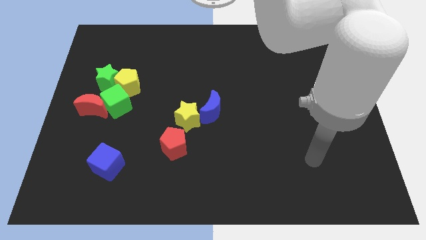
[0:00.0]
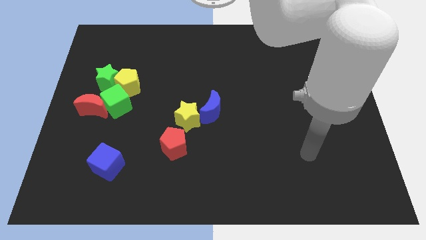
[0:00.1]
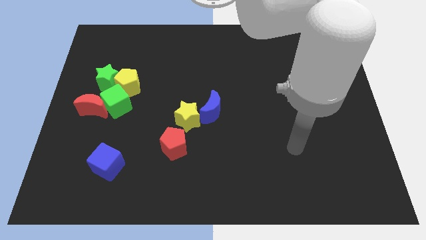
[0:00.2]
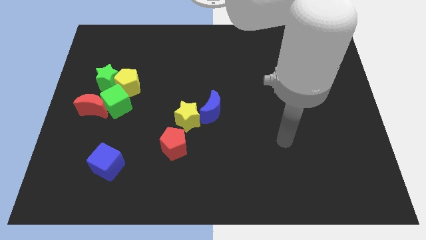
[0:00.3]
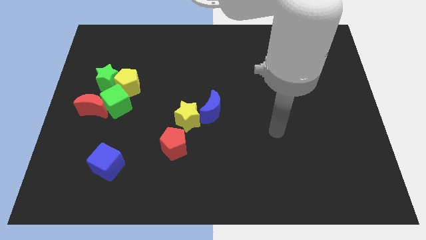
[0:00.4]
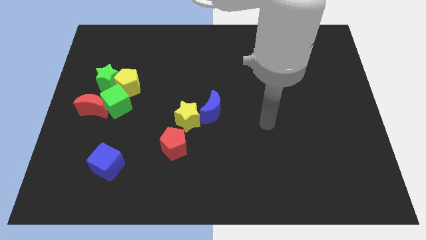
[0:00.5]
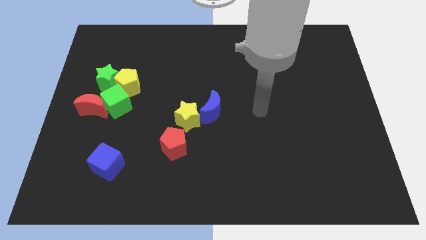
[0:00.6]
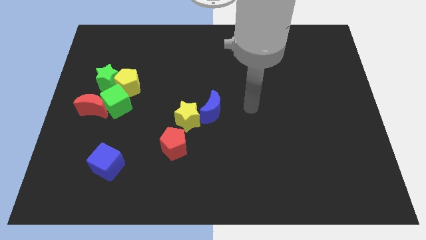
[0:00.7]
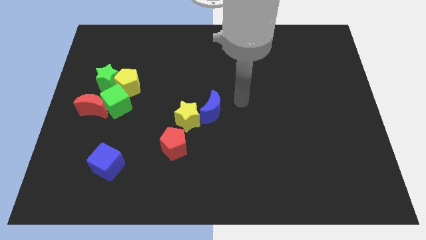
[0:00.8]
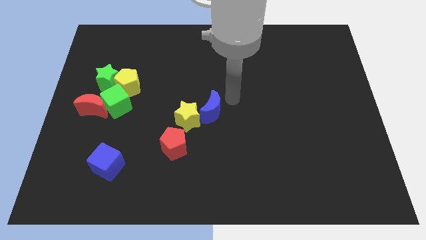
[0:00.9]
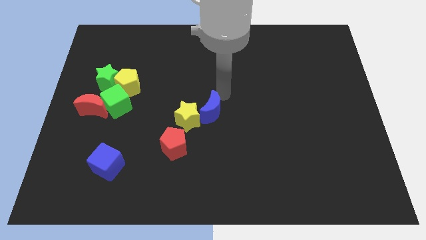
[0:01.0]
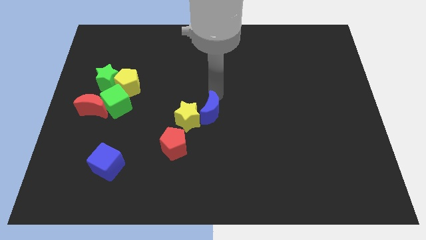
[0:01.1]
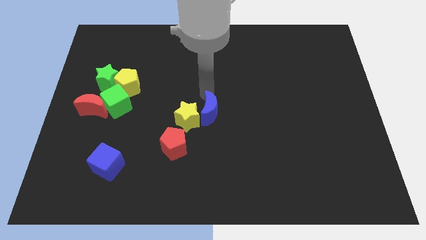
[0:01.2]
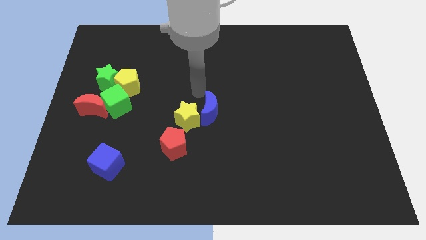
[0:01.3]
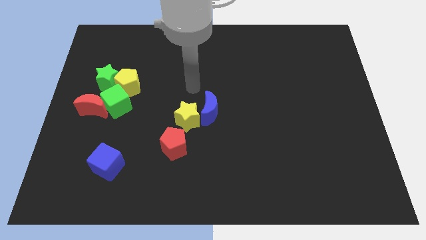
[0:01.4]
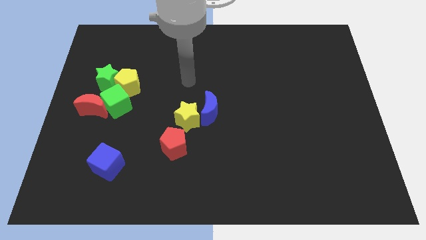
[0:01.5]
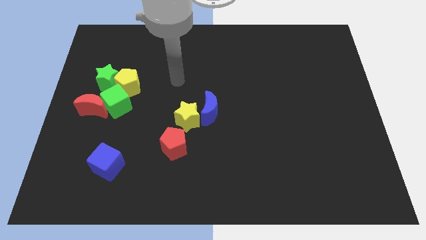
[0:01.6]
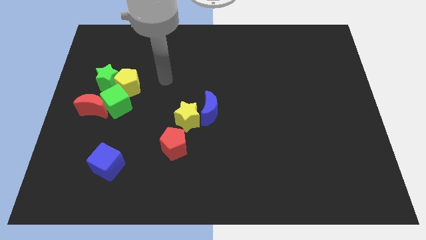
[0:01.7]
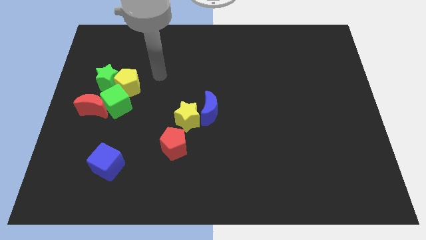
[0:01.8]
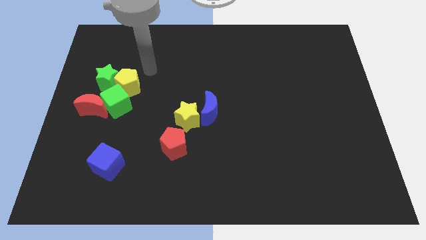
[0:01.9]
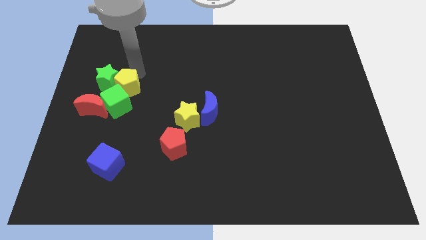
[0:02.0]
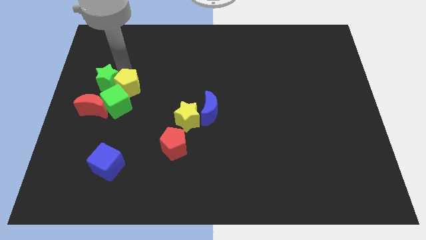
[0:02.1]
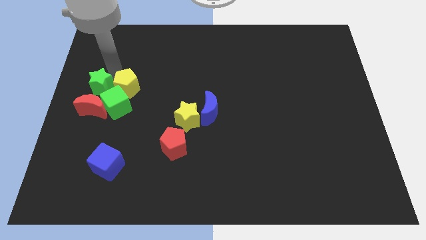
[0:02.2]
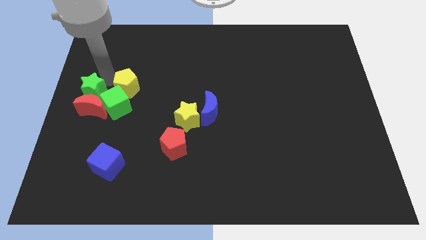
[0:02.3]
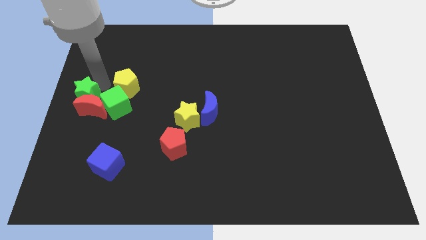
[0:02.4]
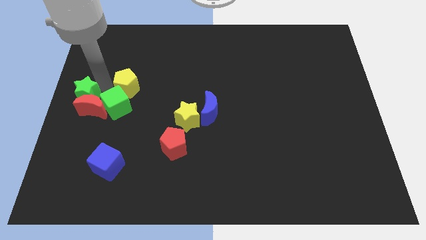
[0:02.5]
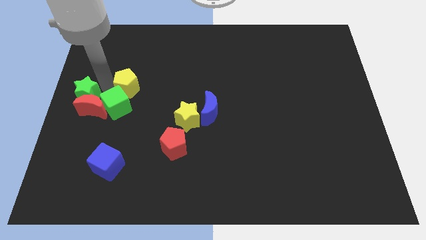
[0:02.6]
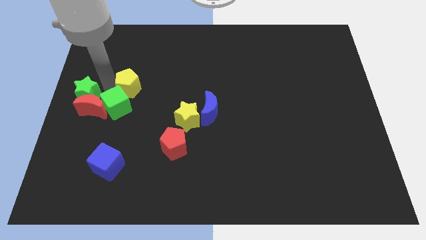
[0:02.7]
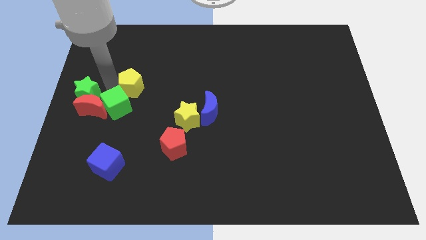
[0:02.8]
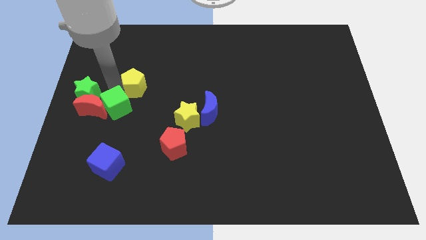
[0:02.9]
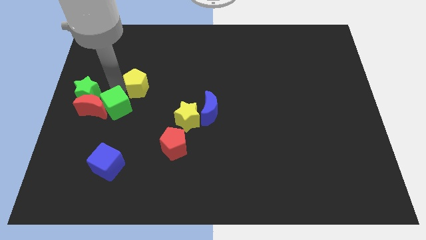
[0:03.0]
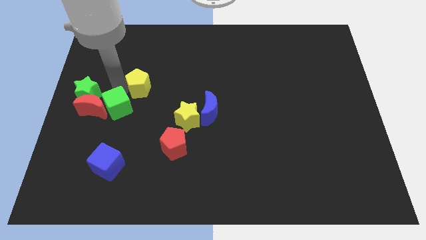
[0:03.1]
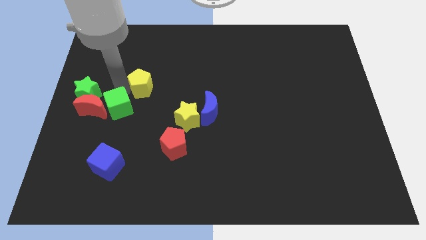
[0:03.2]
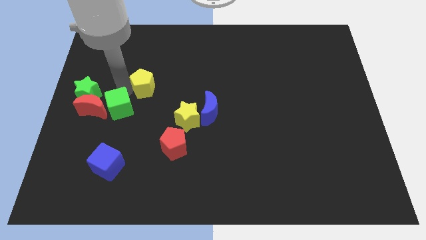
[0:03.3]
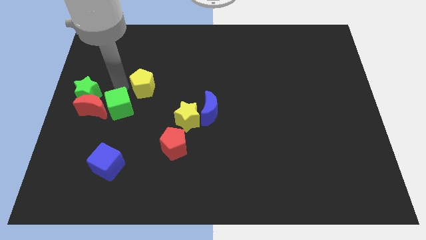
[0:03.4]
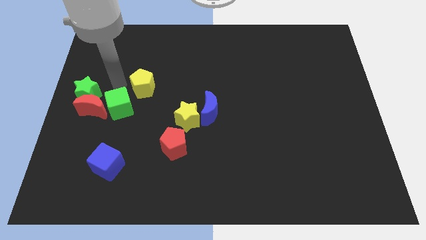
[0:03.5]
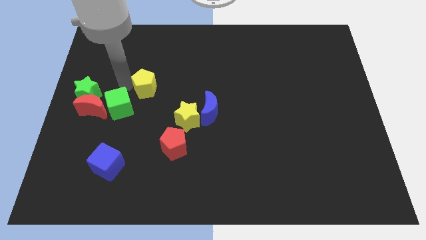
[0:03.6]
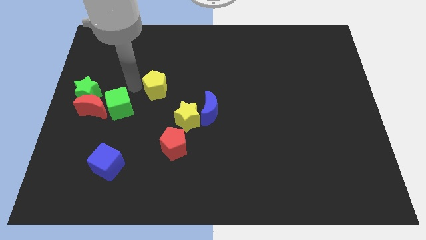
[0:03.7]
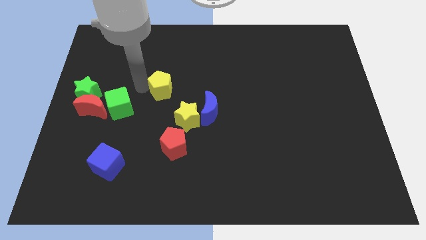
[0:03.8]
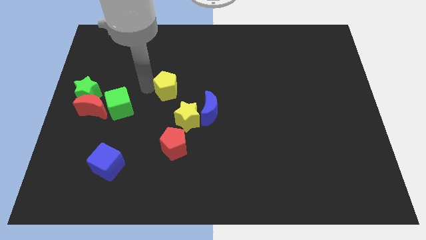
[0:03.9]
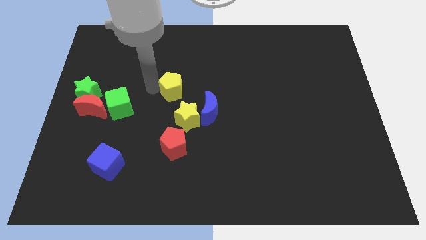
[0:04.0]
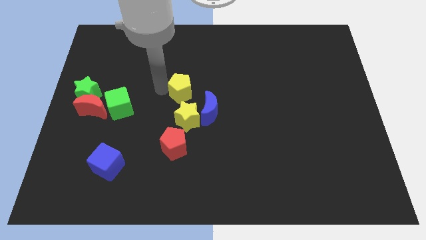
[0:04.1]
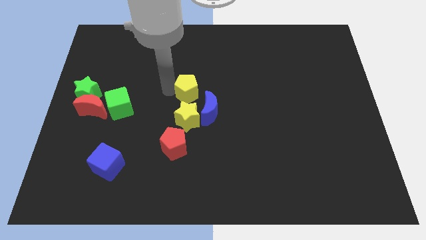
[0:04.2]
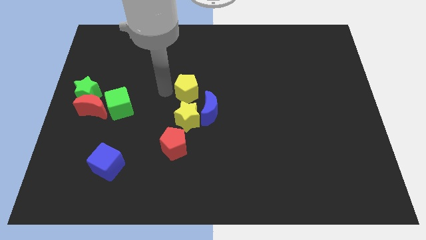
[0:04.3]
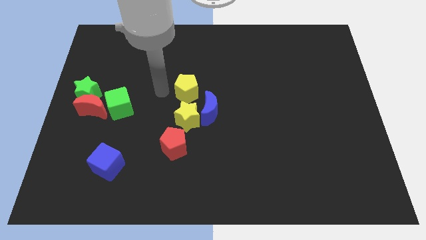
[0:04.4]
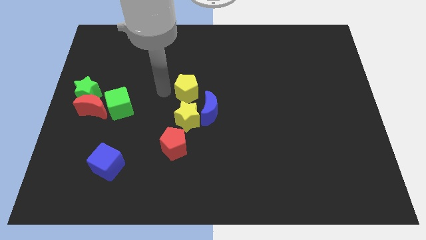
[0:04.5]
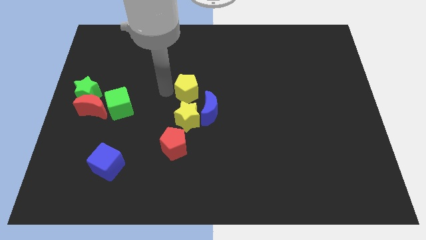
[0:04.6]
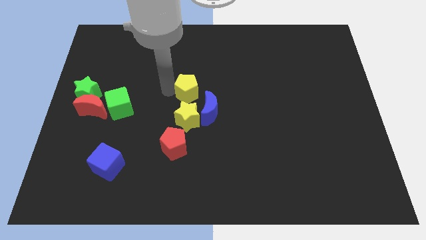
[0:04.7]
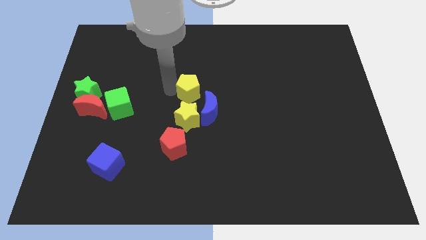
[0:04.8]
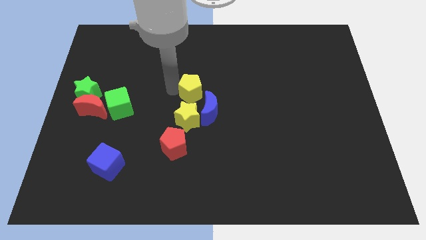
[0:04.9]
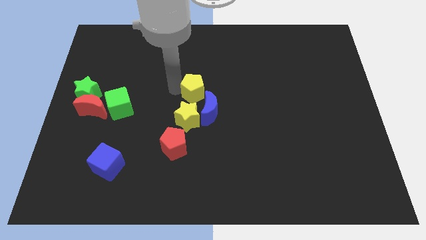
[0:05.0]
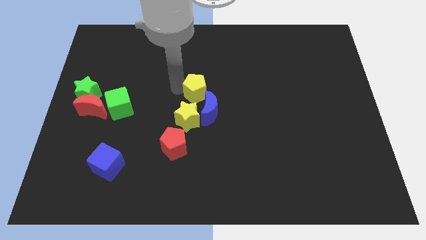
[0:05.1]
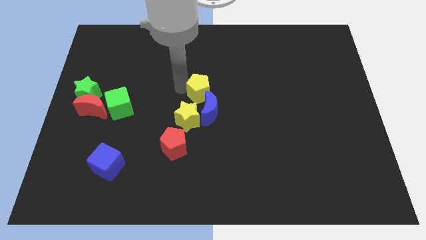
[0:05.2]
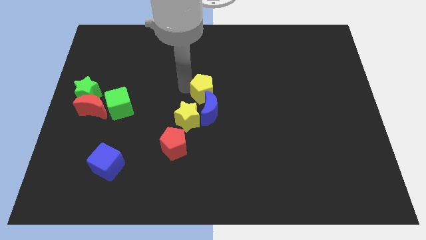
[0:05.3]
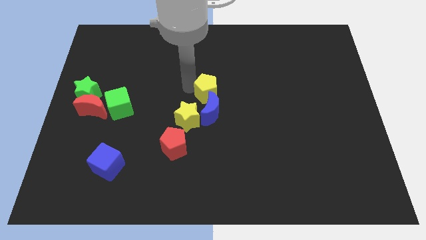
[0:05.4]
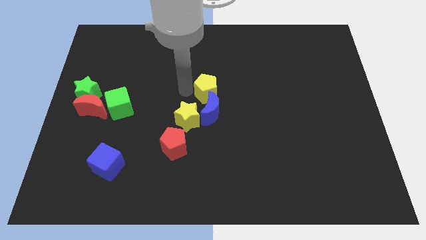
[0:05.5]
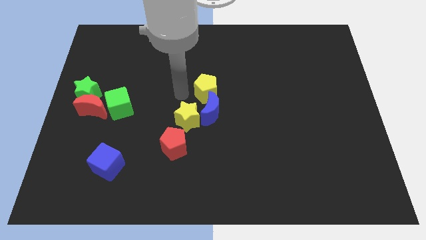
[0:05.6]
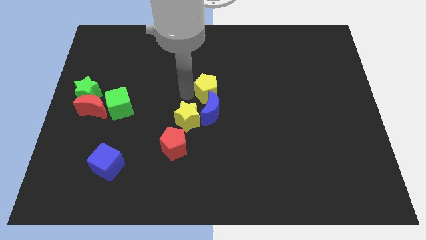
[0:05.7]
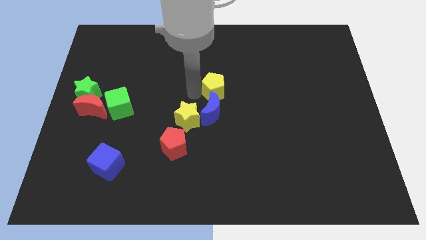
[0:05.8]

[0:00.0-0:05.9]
move the yellow pentagon to the right

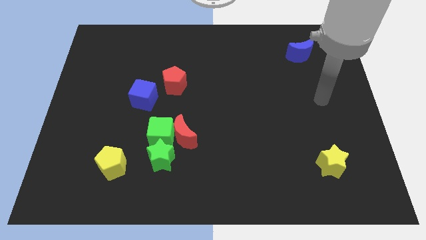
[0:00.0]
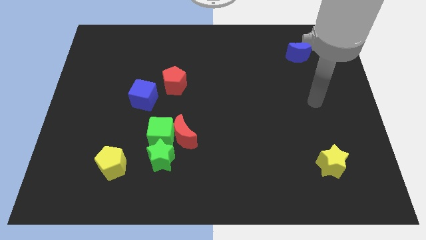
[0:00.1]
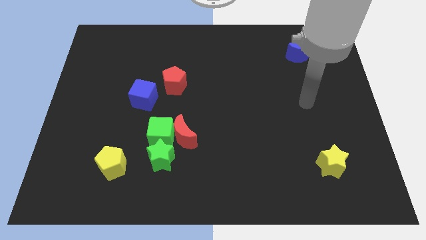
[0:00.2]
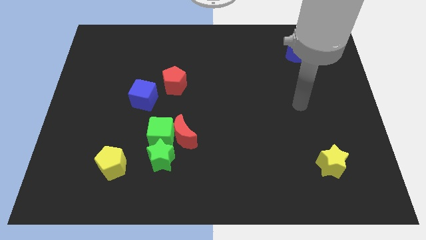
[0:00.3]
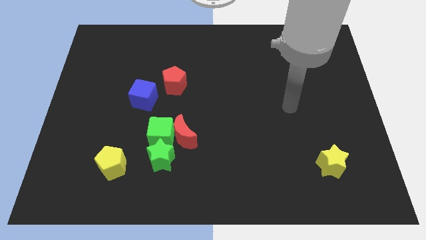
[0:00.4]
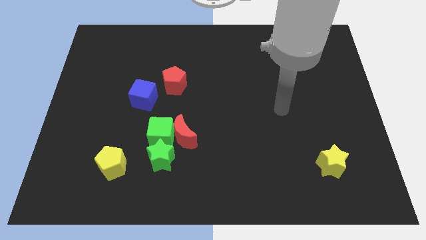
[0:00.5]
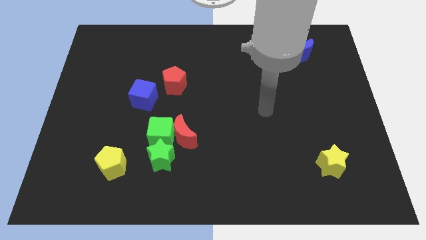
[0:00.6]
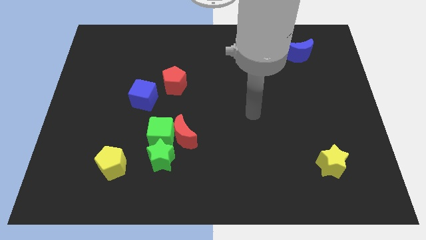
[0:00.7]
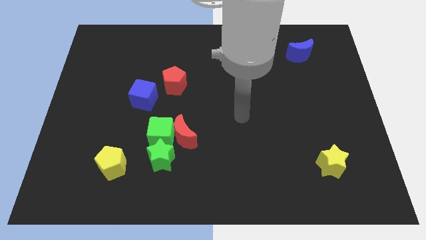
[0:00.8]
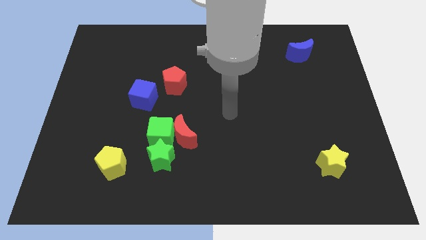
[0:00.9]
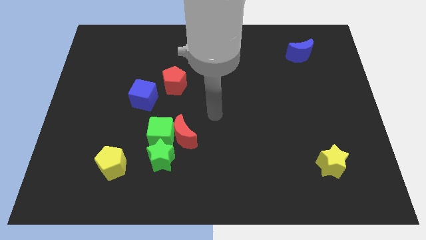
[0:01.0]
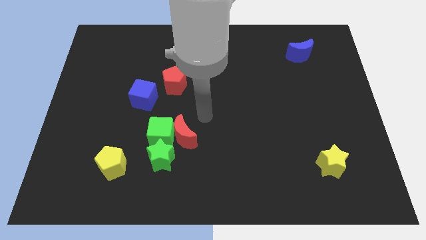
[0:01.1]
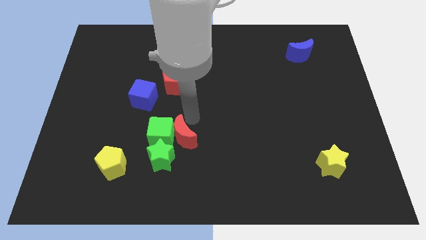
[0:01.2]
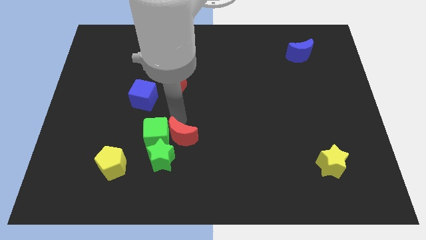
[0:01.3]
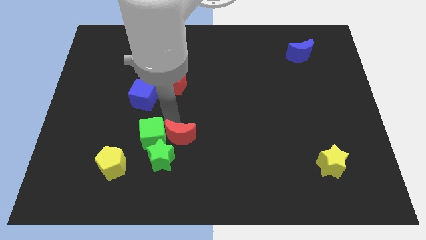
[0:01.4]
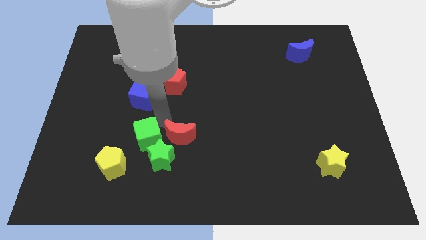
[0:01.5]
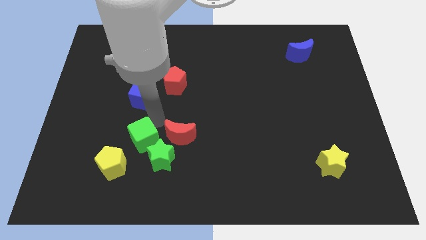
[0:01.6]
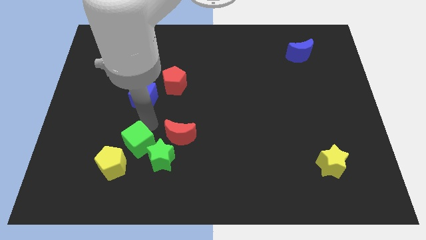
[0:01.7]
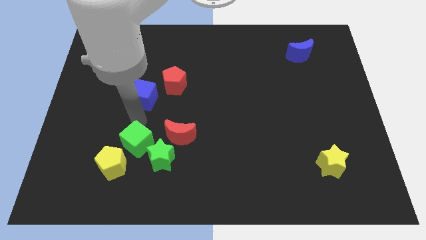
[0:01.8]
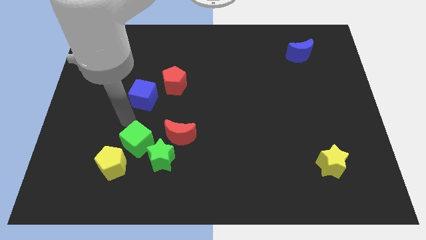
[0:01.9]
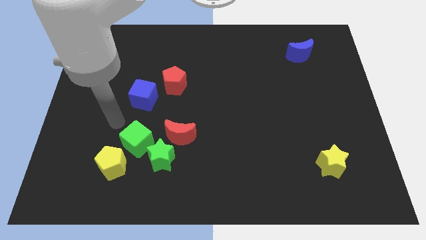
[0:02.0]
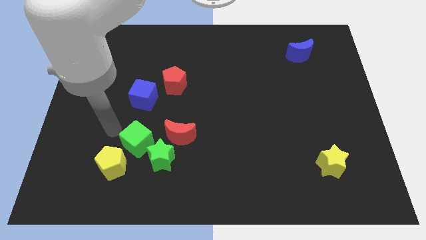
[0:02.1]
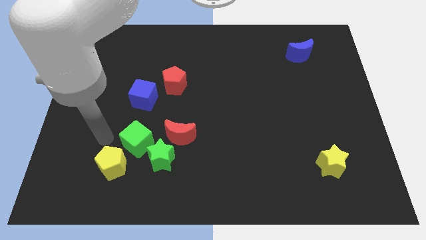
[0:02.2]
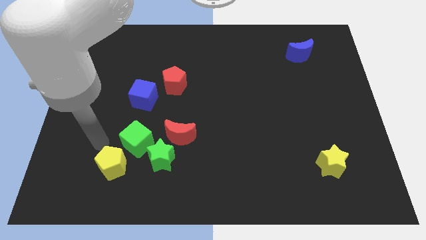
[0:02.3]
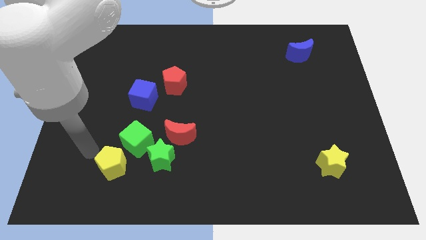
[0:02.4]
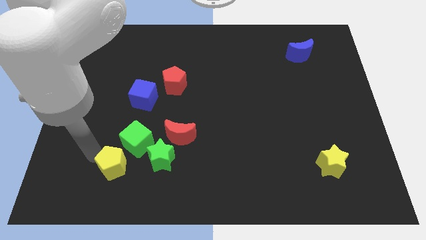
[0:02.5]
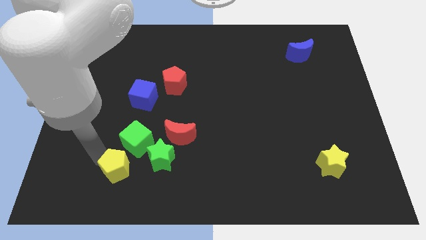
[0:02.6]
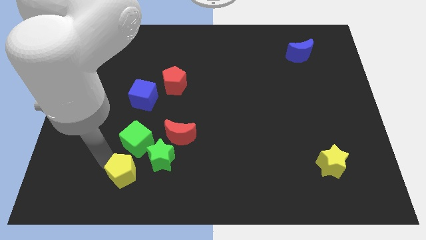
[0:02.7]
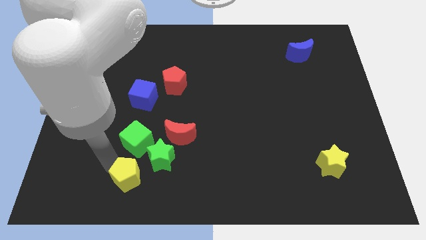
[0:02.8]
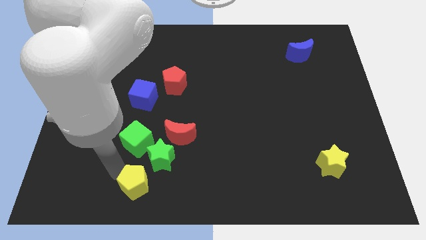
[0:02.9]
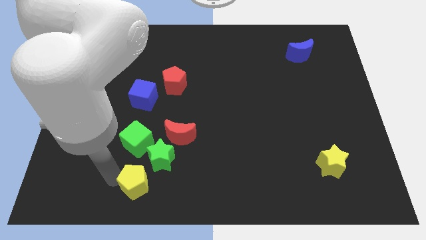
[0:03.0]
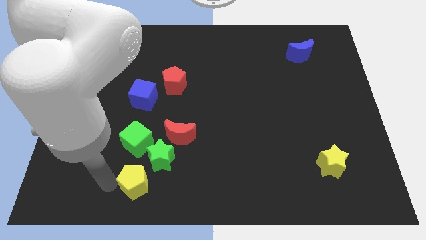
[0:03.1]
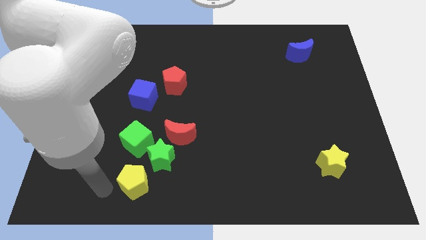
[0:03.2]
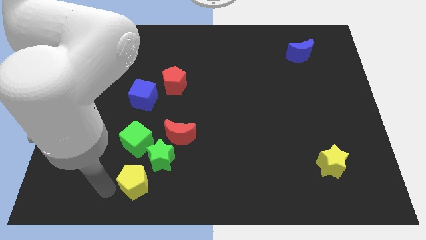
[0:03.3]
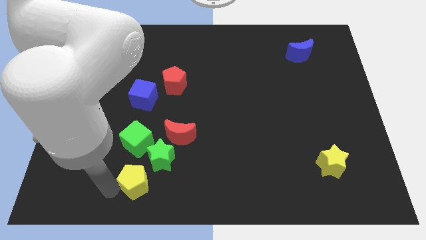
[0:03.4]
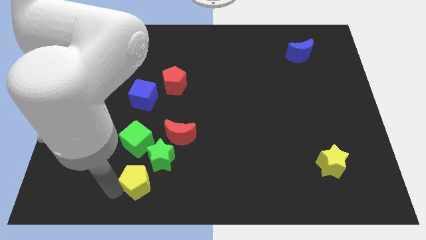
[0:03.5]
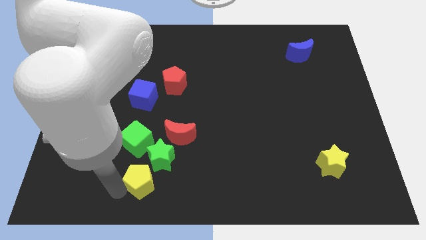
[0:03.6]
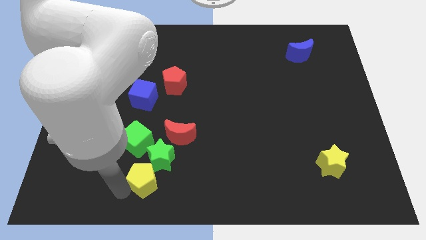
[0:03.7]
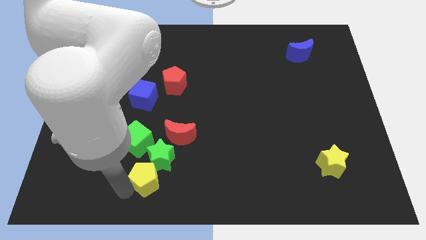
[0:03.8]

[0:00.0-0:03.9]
push the yellow pentagon right a little bit
